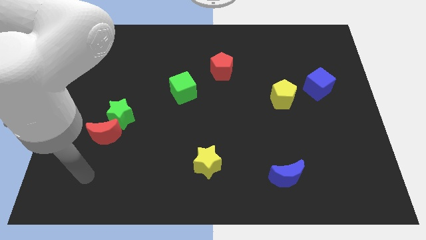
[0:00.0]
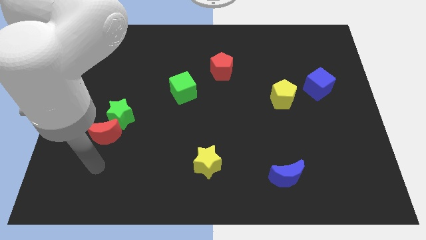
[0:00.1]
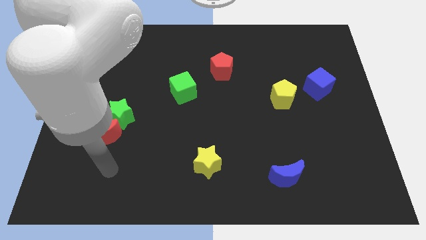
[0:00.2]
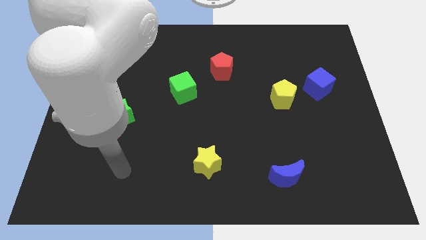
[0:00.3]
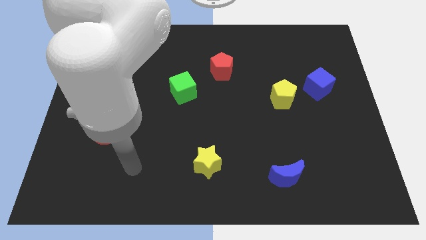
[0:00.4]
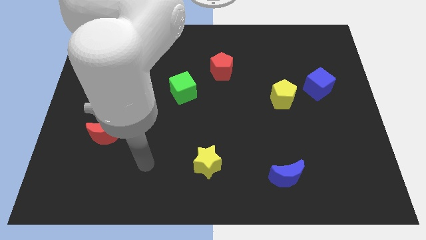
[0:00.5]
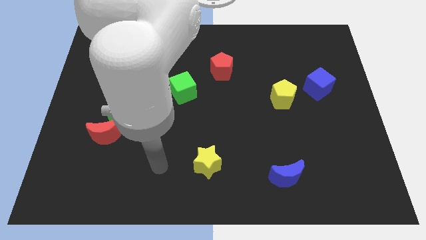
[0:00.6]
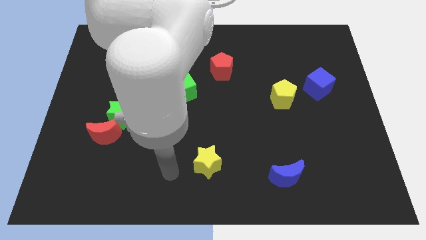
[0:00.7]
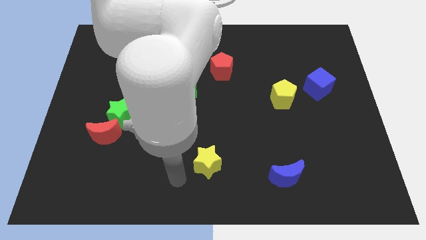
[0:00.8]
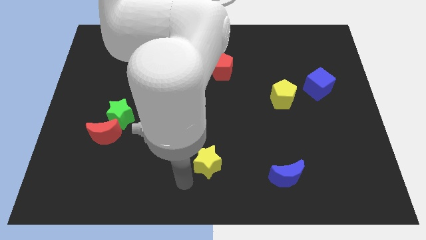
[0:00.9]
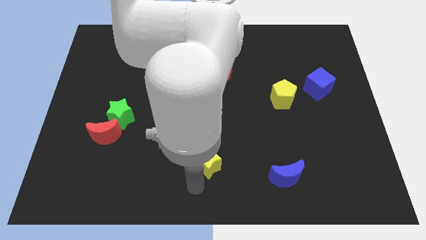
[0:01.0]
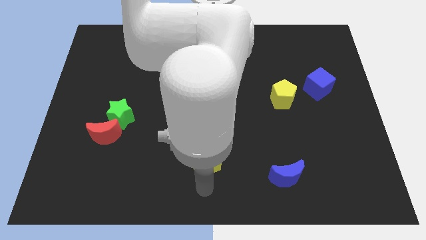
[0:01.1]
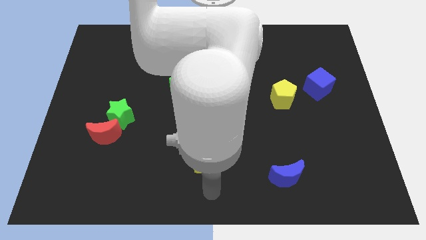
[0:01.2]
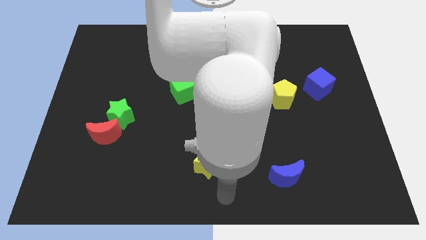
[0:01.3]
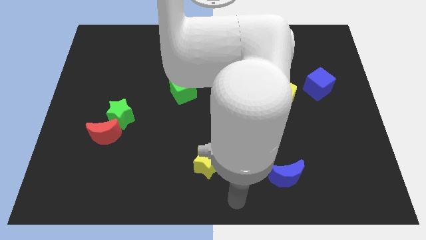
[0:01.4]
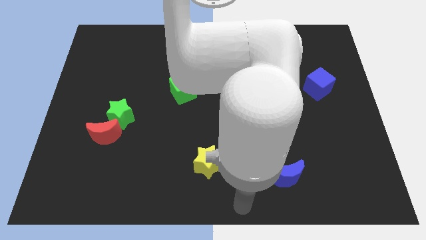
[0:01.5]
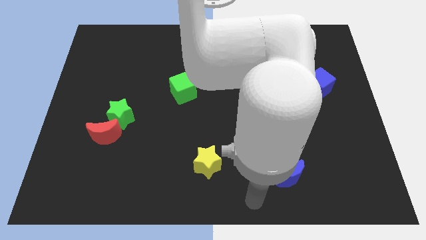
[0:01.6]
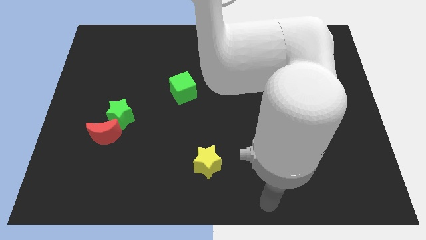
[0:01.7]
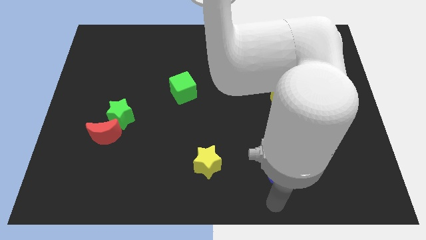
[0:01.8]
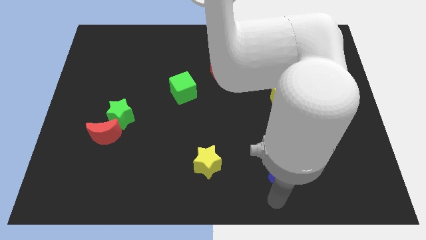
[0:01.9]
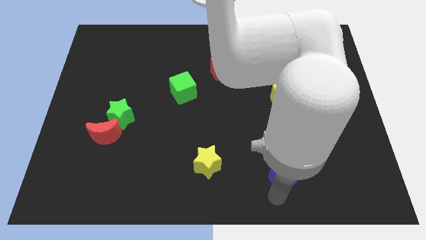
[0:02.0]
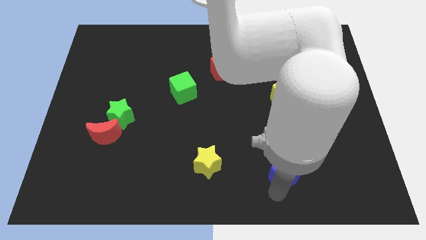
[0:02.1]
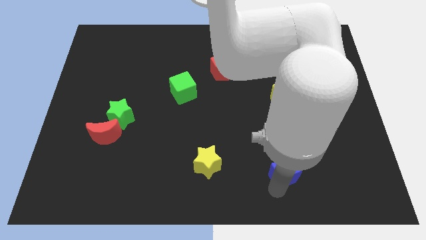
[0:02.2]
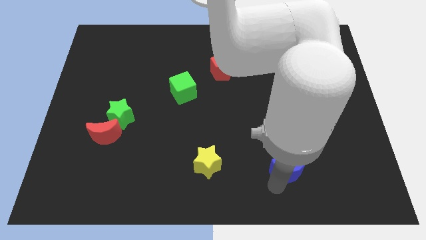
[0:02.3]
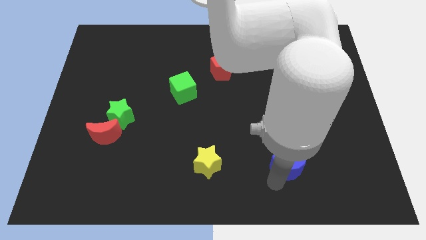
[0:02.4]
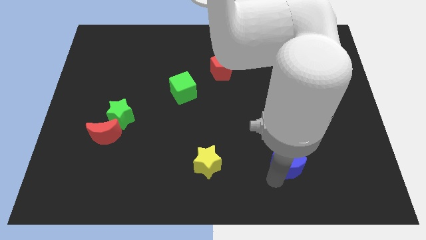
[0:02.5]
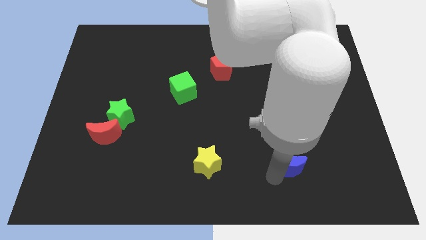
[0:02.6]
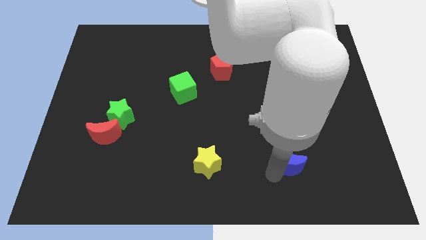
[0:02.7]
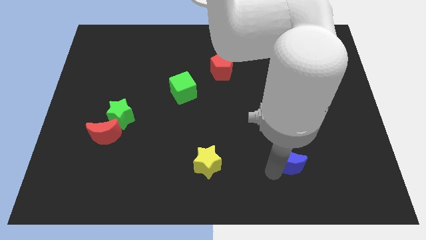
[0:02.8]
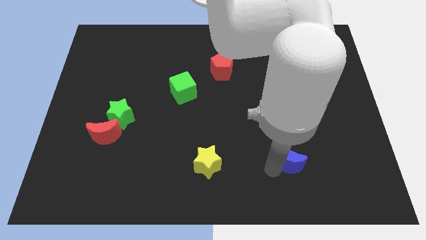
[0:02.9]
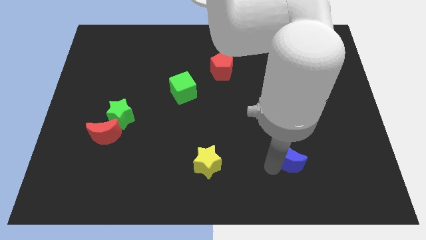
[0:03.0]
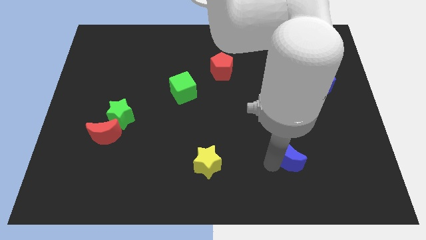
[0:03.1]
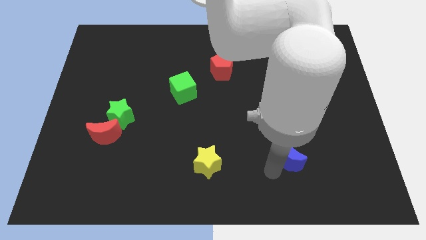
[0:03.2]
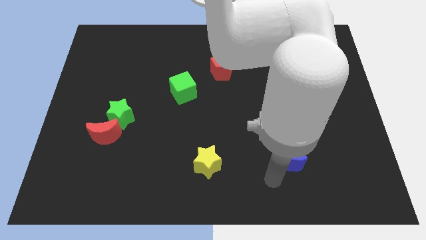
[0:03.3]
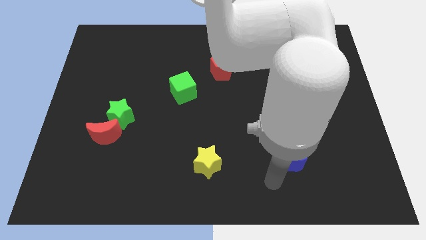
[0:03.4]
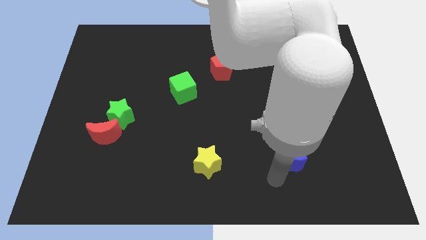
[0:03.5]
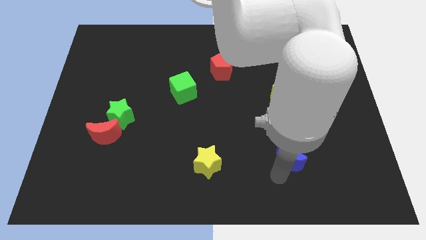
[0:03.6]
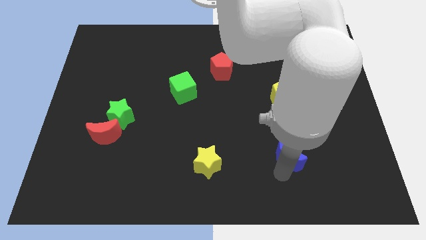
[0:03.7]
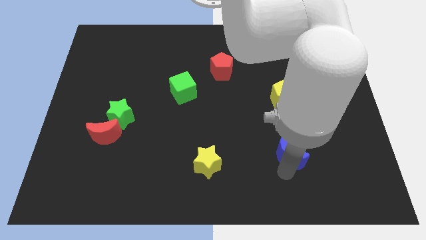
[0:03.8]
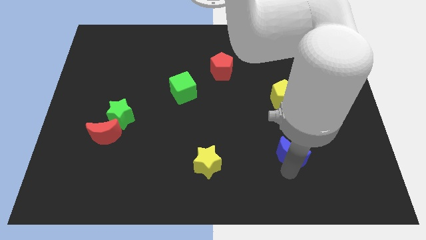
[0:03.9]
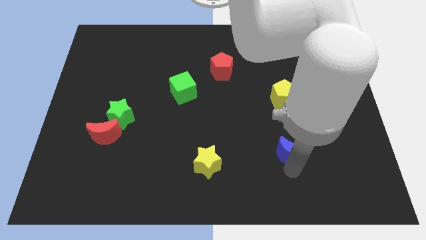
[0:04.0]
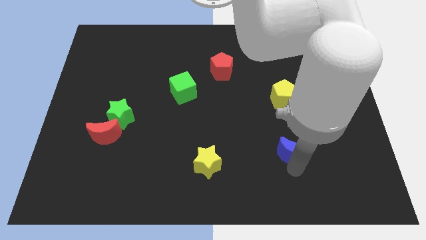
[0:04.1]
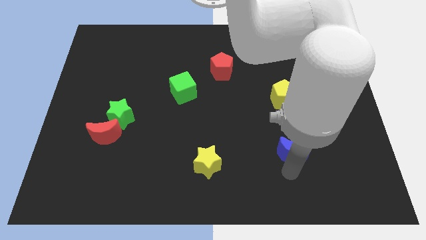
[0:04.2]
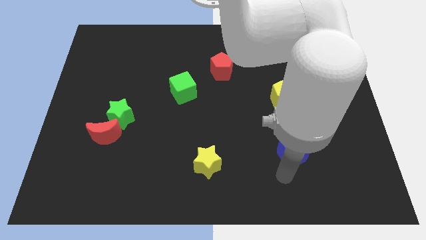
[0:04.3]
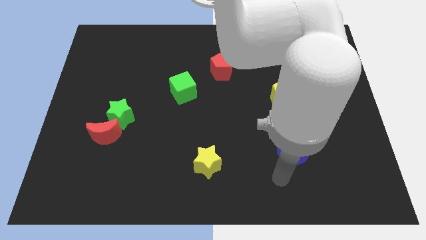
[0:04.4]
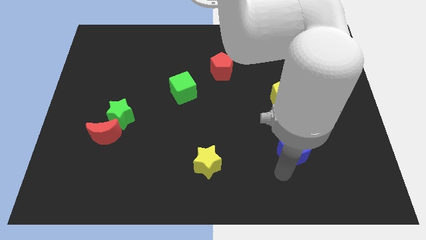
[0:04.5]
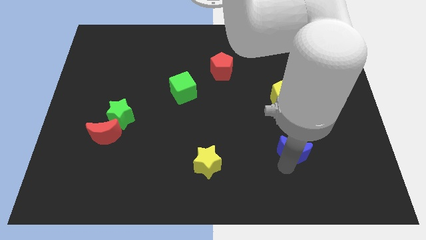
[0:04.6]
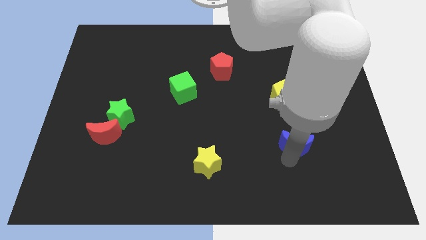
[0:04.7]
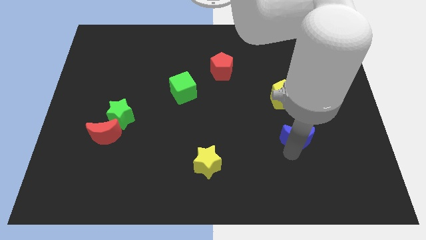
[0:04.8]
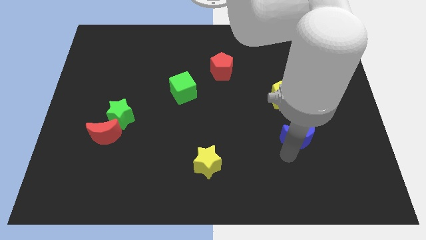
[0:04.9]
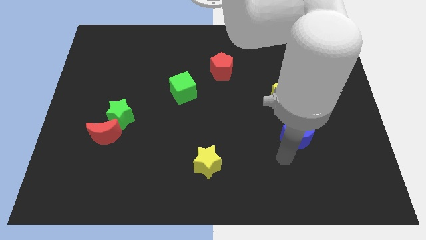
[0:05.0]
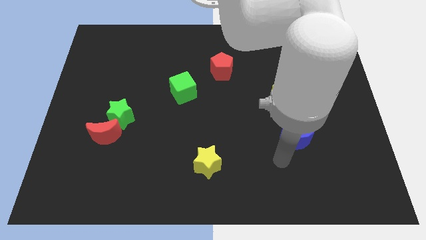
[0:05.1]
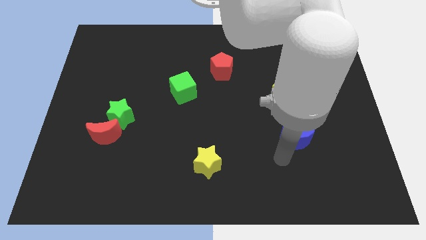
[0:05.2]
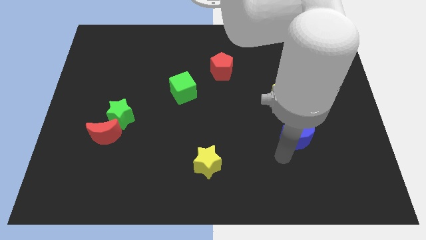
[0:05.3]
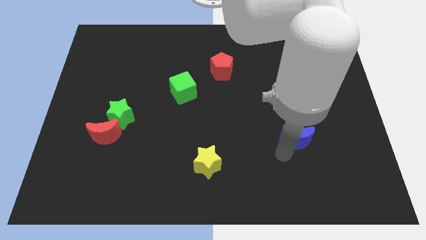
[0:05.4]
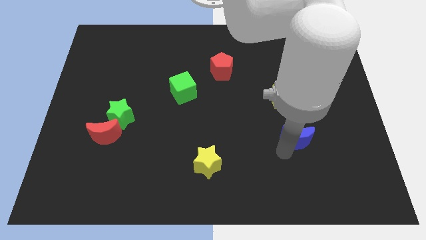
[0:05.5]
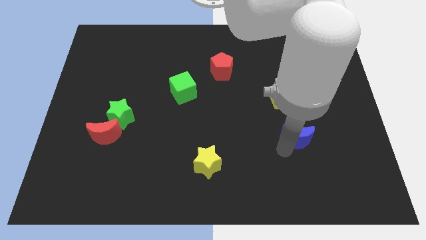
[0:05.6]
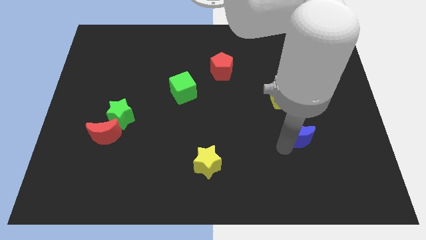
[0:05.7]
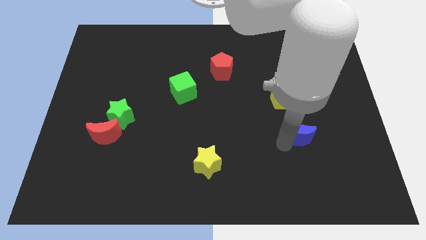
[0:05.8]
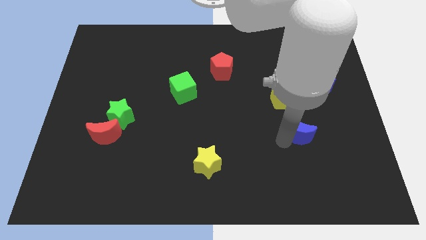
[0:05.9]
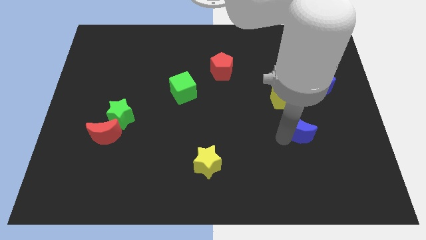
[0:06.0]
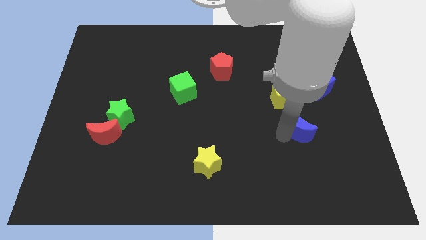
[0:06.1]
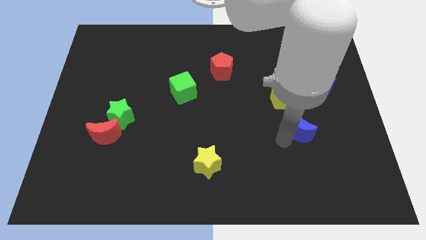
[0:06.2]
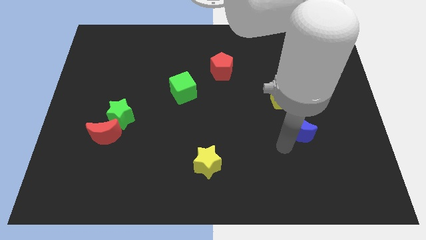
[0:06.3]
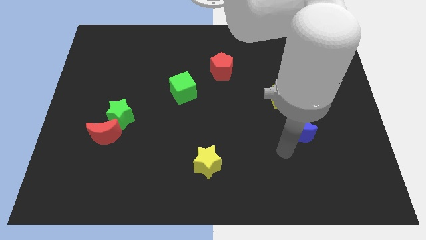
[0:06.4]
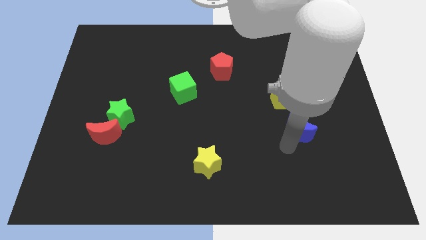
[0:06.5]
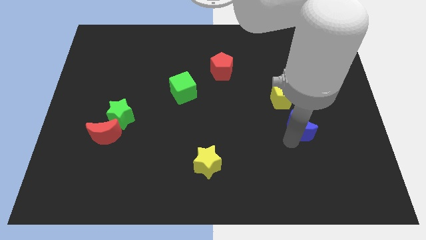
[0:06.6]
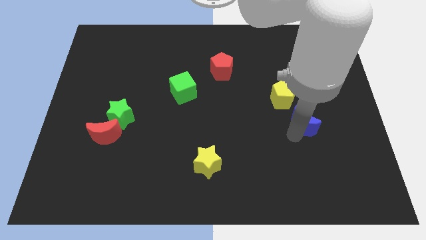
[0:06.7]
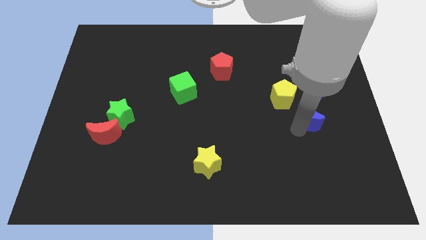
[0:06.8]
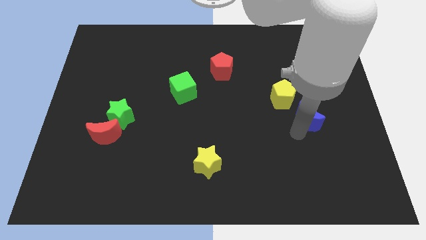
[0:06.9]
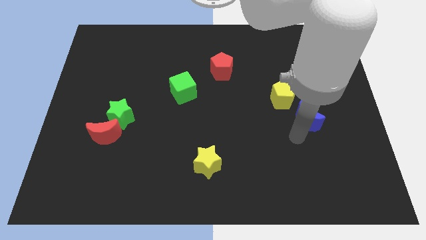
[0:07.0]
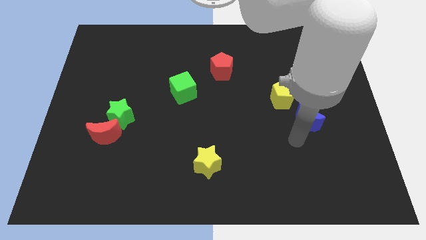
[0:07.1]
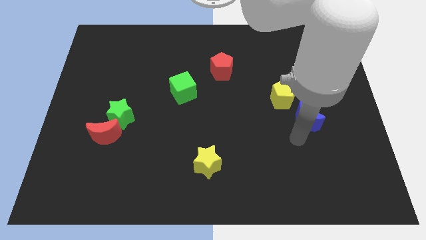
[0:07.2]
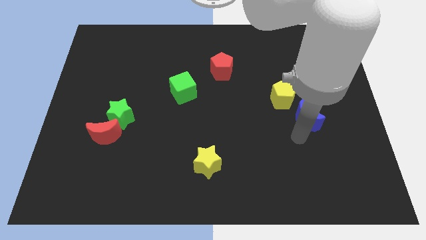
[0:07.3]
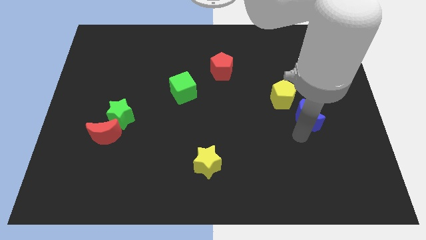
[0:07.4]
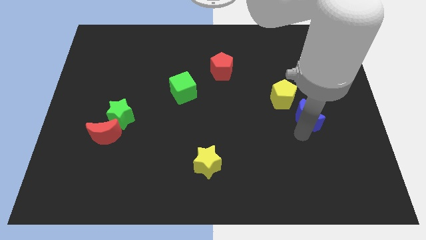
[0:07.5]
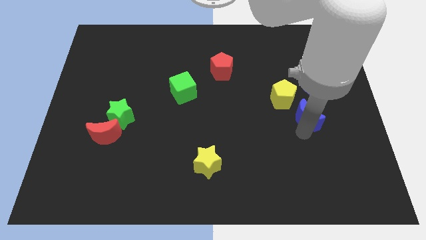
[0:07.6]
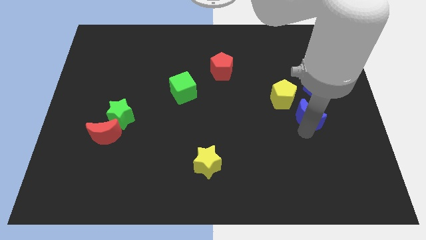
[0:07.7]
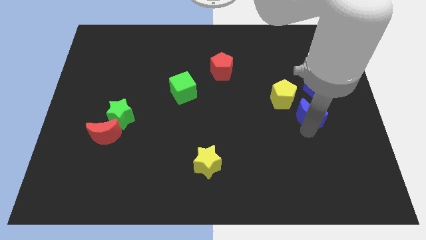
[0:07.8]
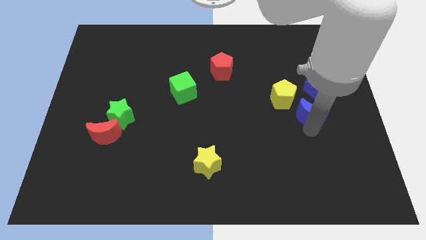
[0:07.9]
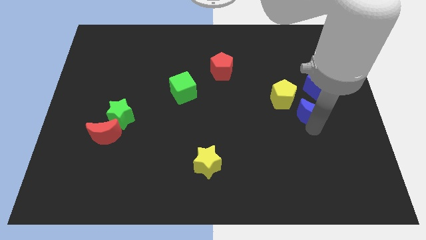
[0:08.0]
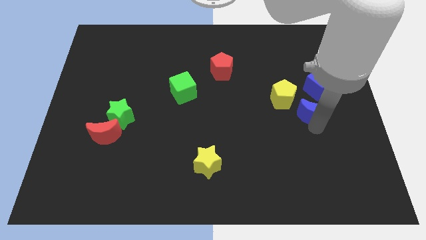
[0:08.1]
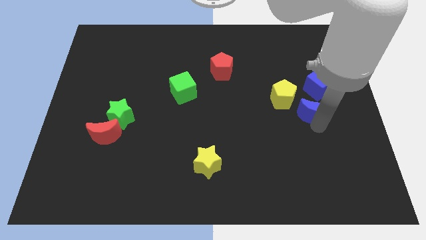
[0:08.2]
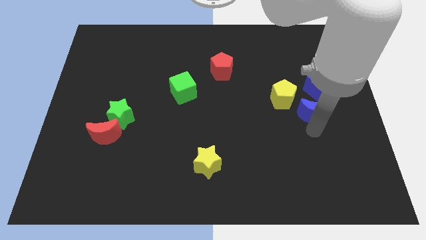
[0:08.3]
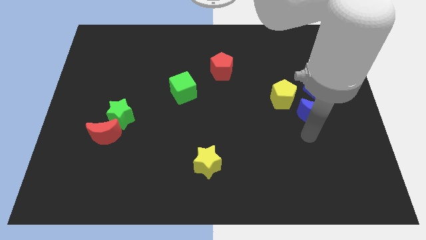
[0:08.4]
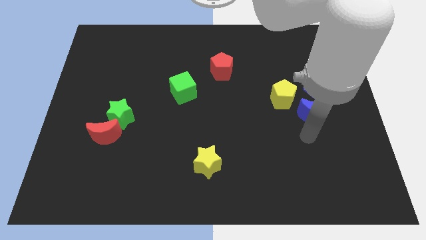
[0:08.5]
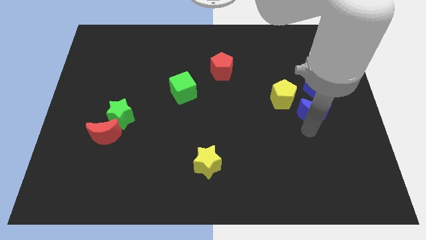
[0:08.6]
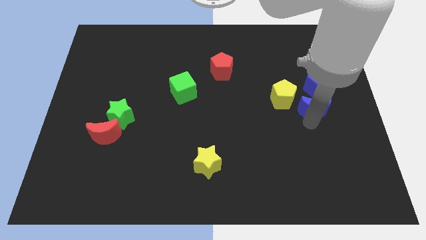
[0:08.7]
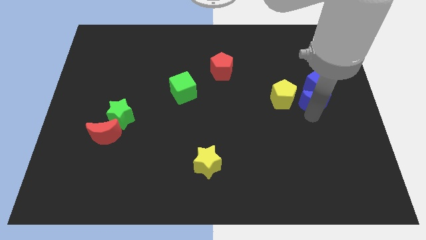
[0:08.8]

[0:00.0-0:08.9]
slide the blue moon next to the blue cube
